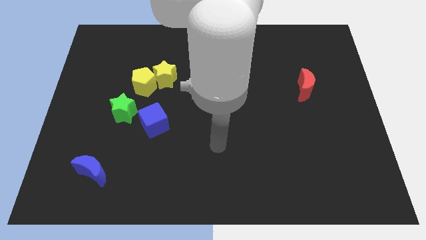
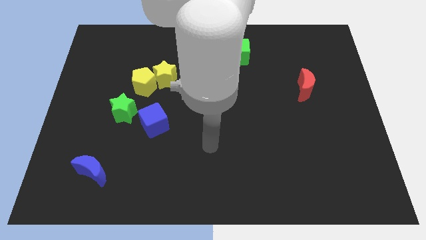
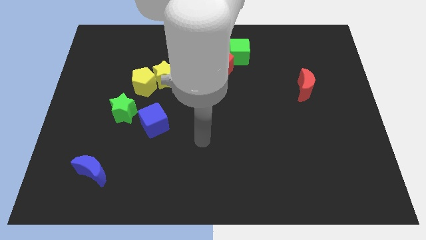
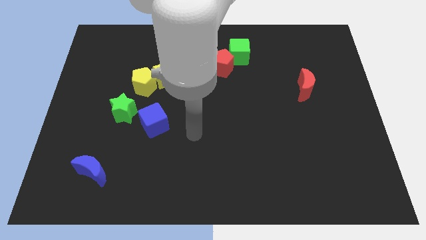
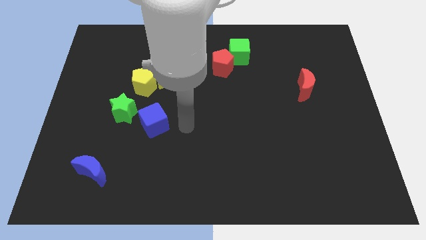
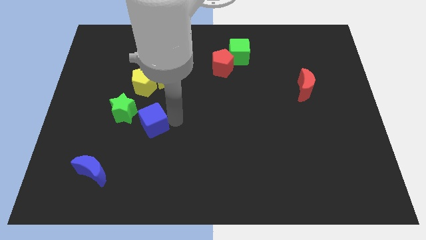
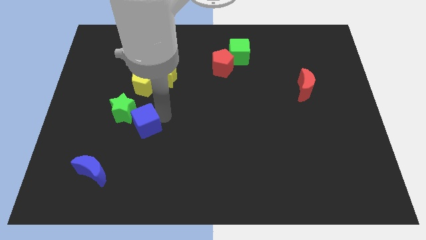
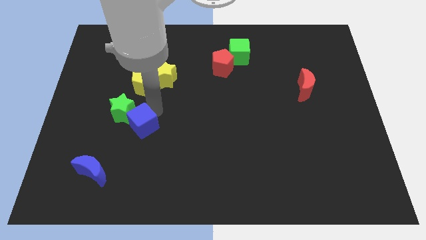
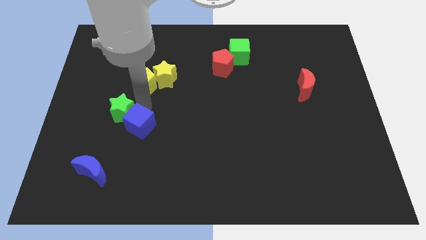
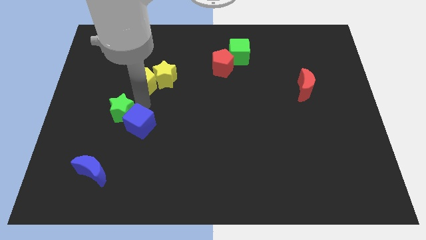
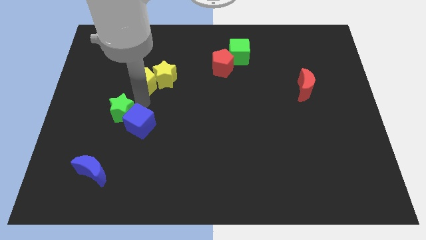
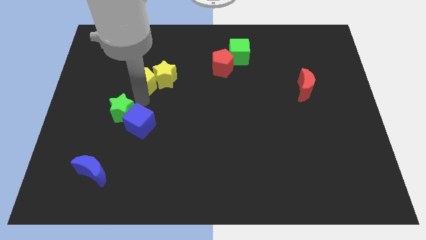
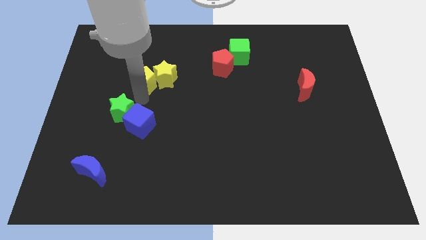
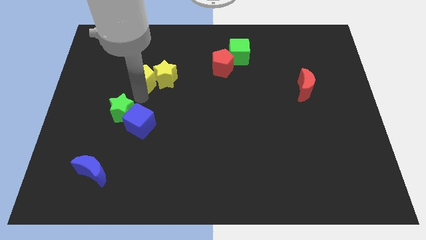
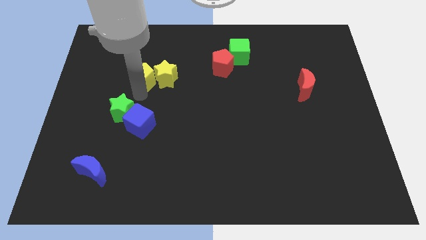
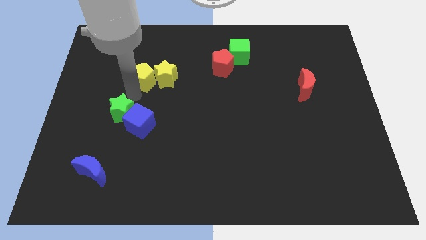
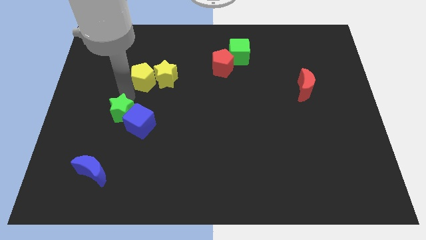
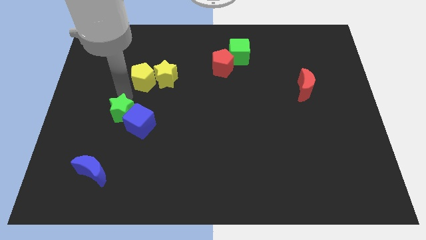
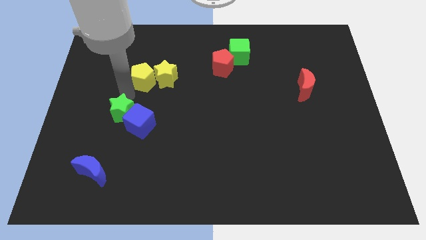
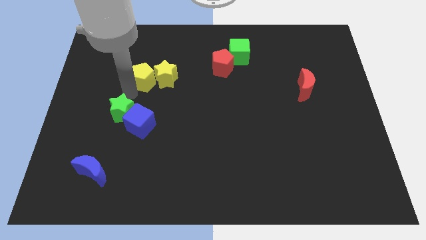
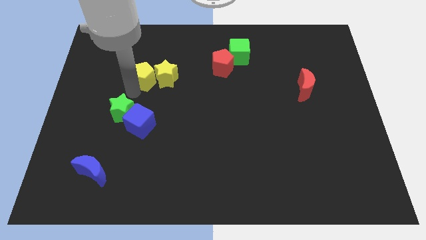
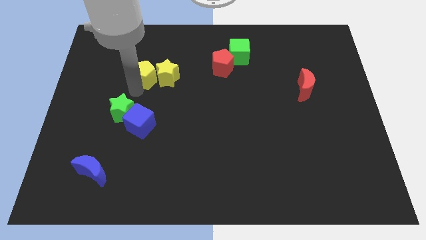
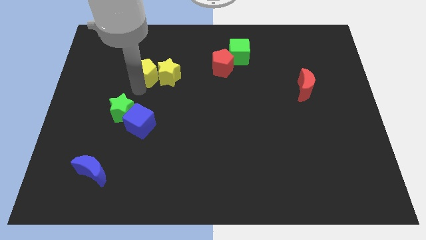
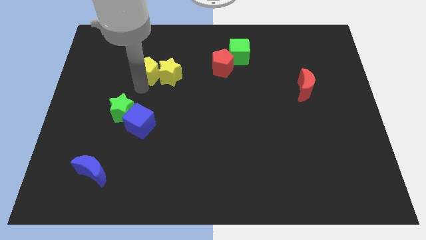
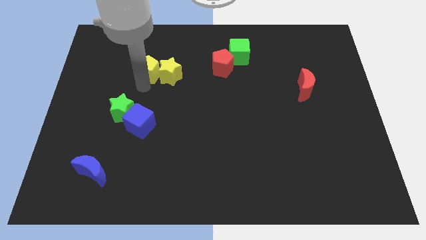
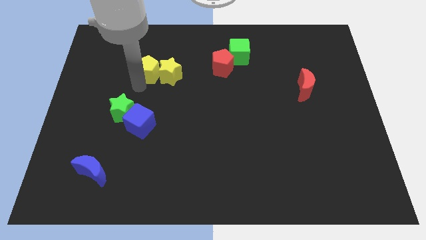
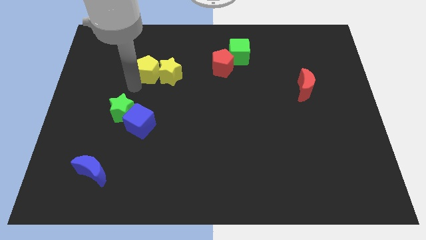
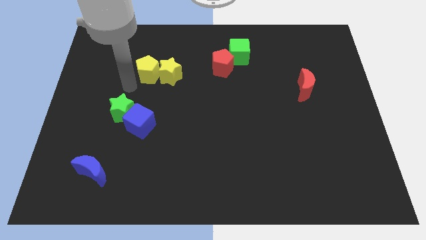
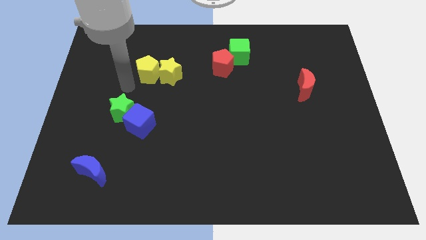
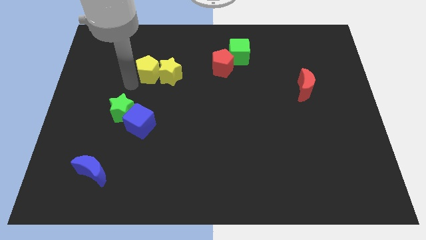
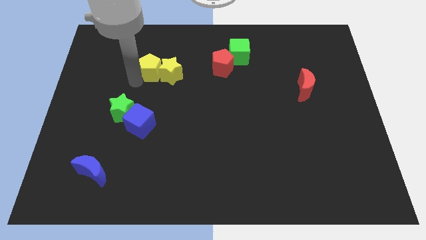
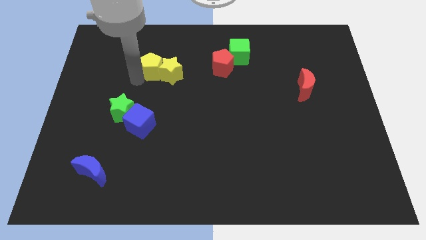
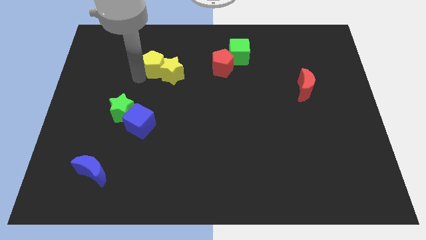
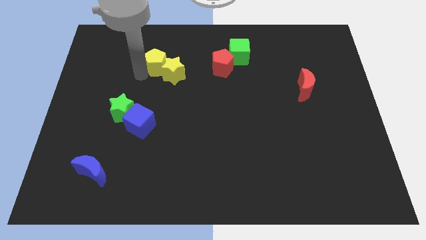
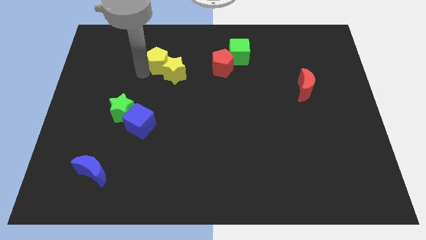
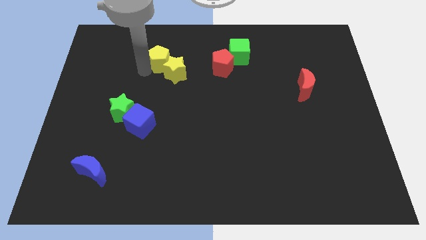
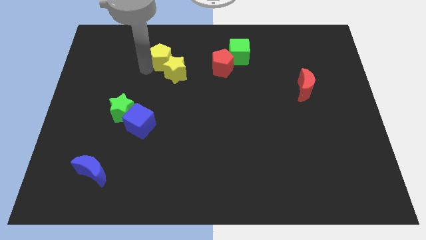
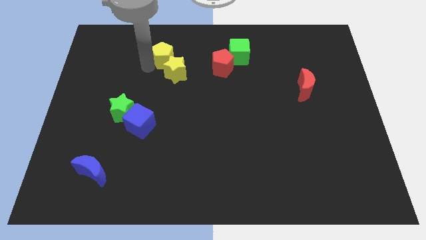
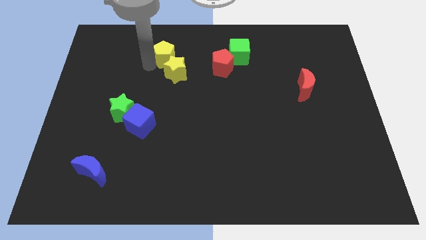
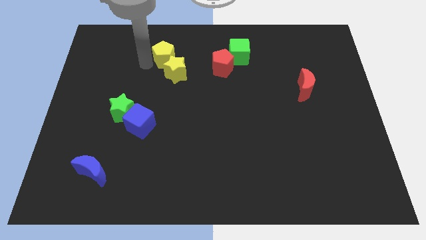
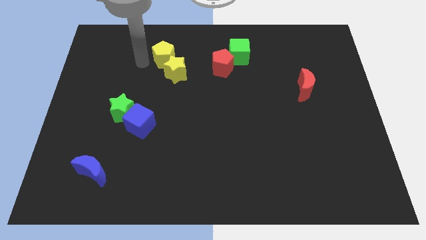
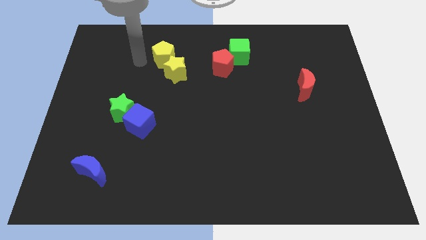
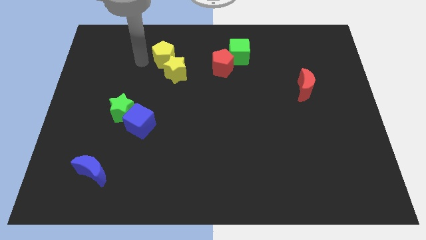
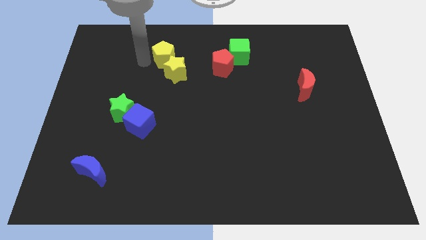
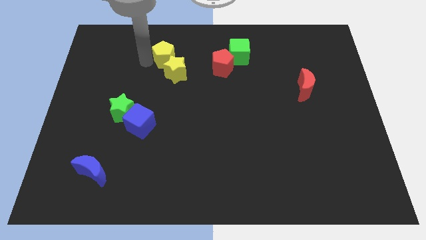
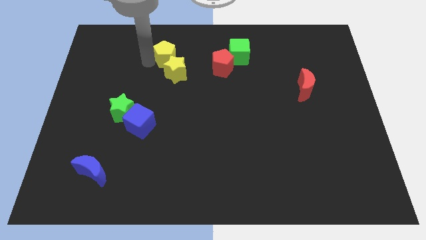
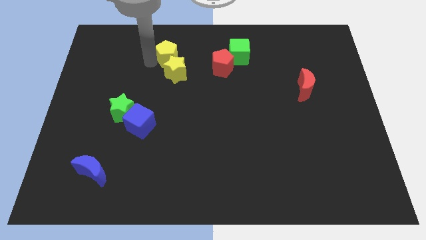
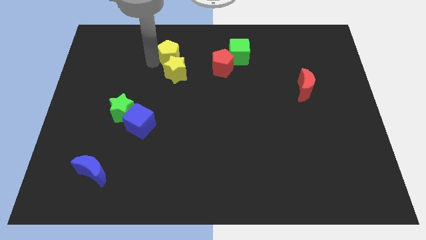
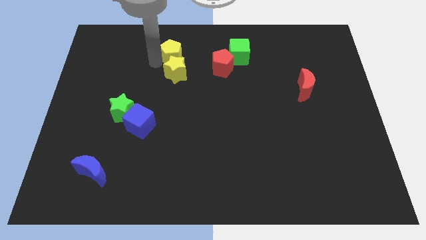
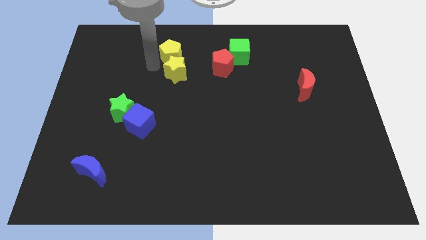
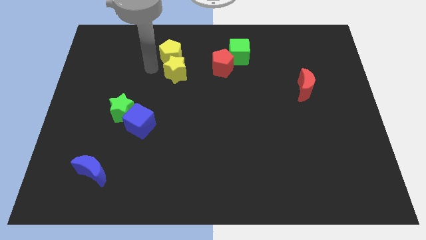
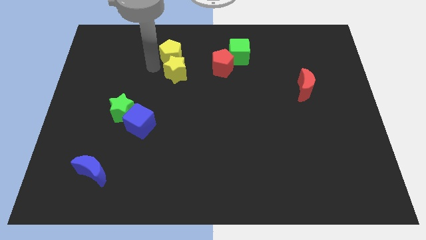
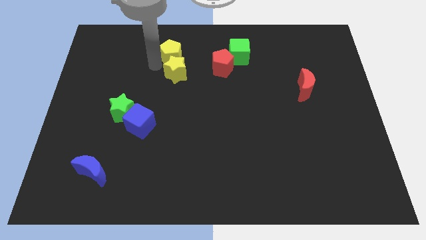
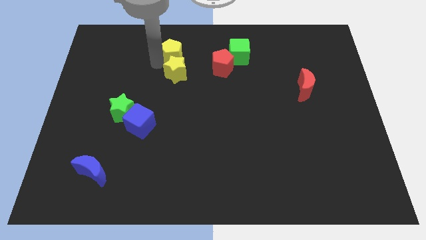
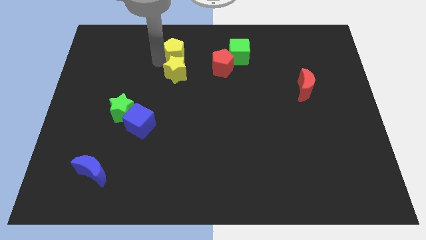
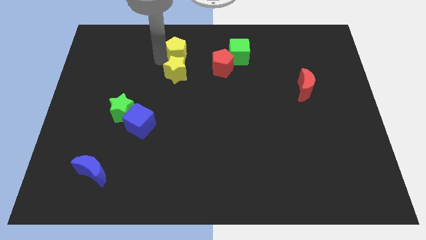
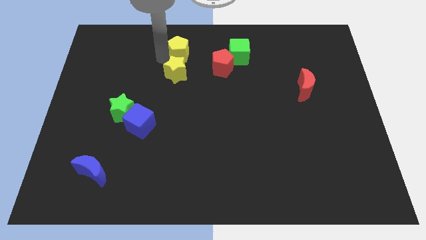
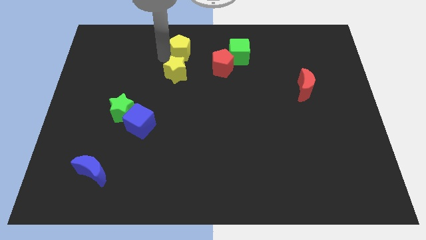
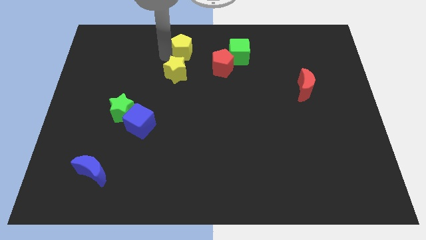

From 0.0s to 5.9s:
put the yellow pentagon to the top side

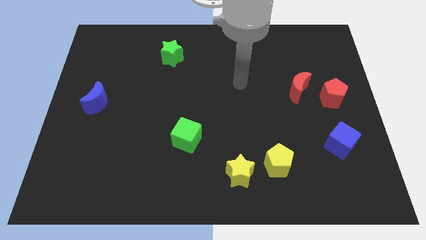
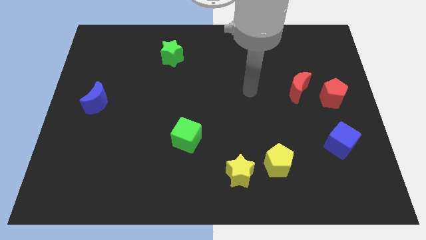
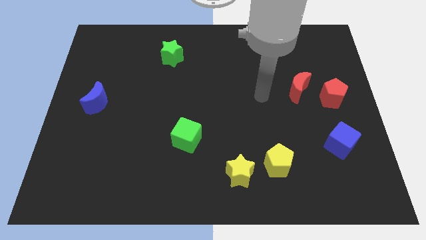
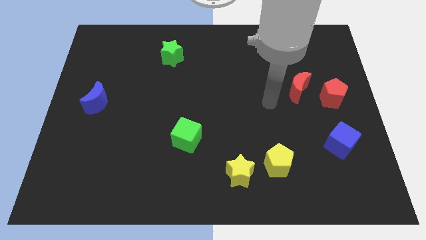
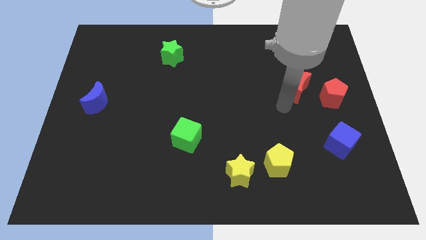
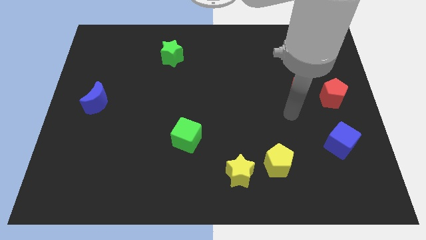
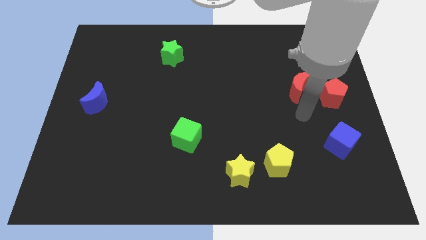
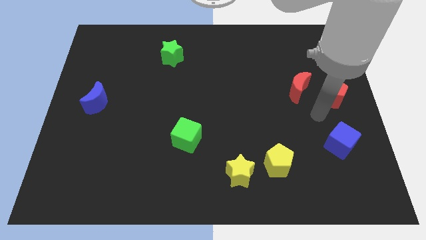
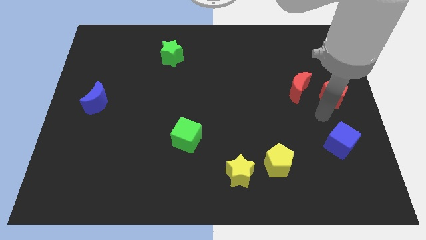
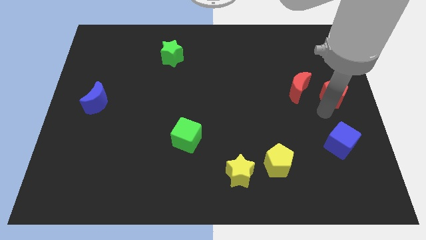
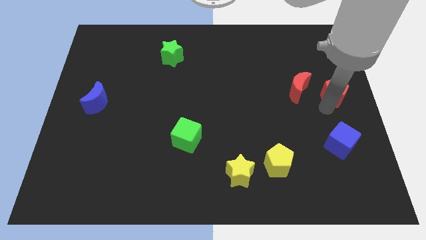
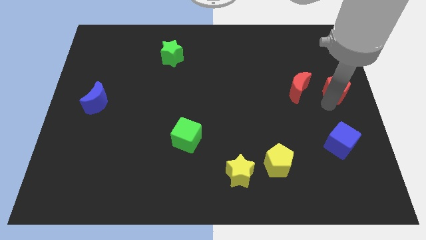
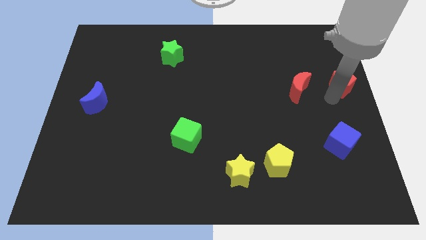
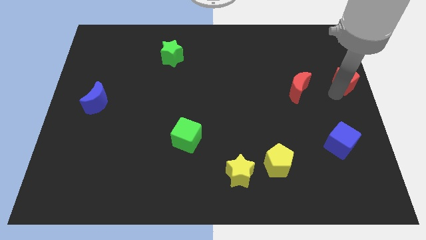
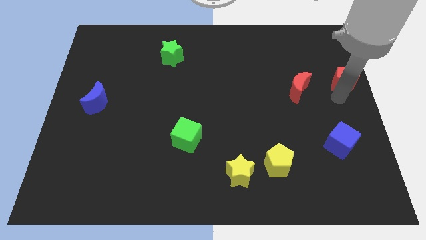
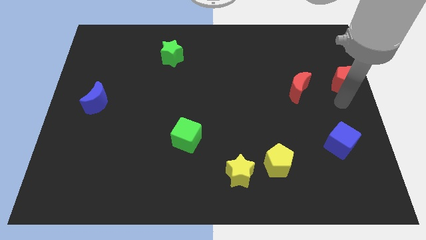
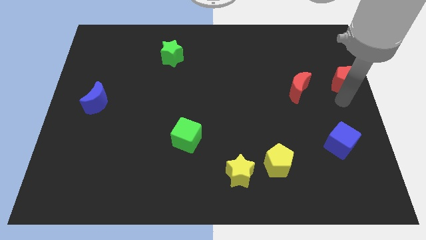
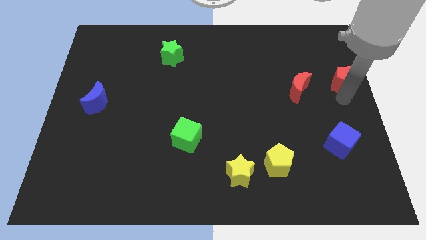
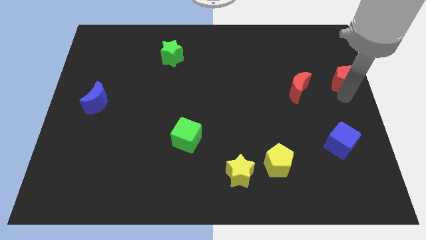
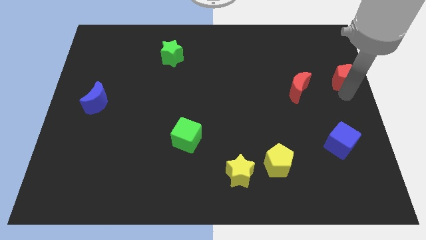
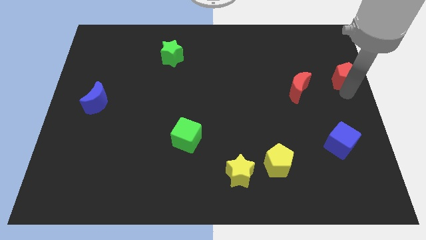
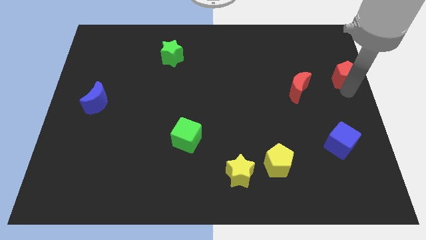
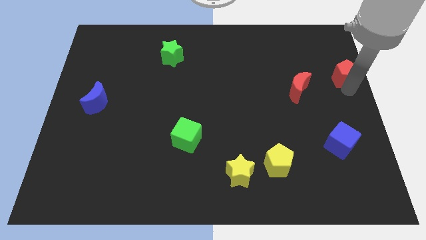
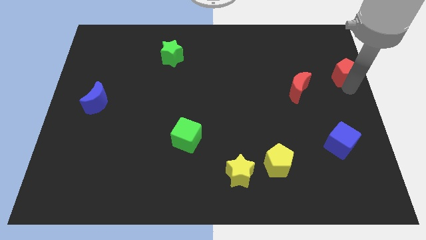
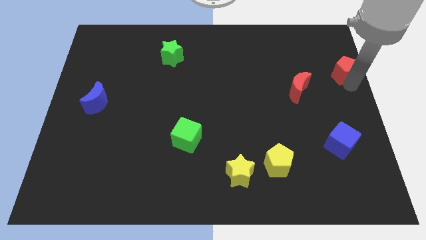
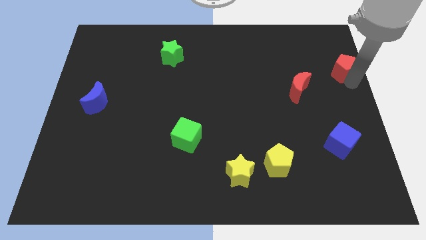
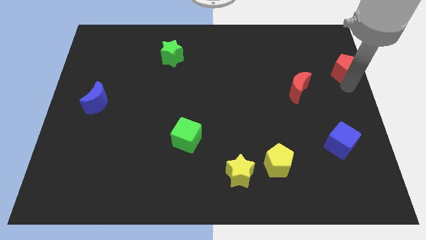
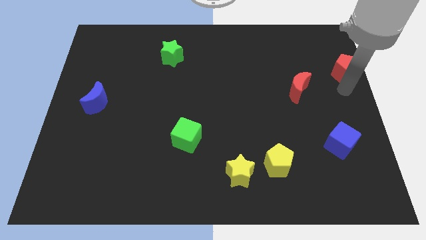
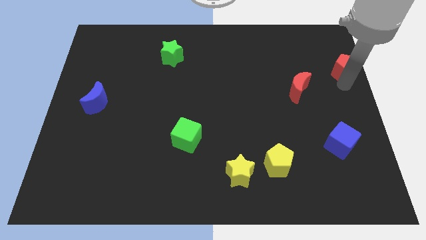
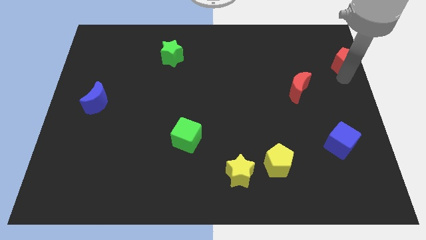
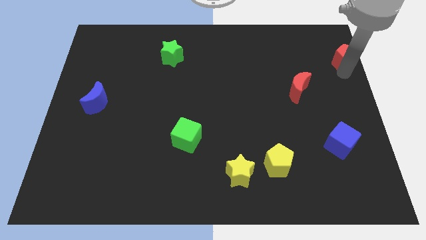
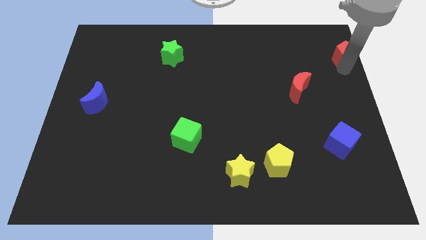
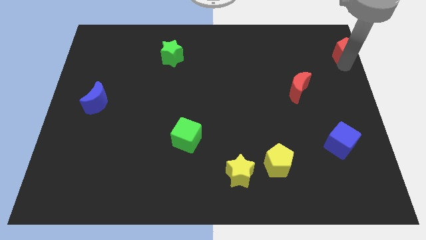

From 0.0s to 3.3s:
move the red pentagon to the top right corner
